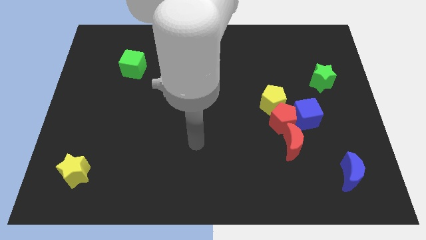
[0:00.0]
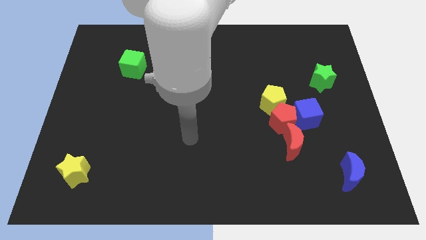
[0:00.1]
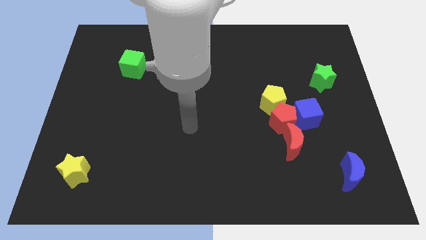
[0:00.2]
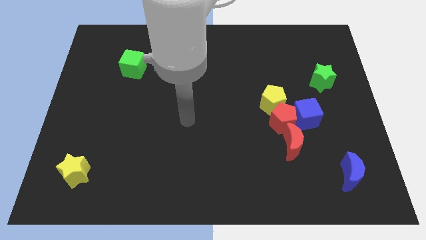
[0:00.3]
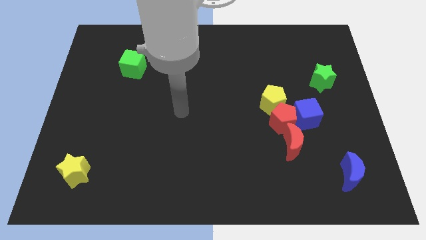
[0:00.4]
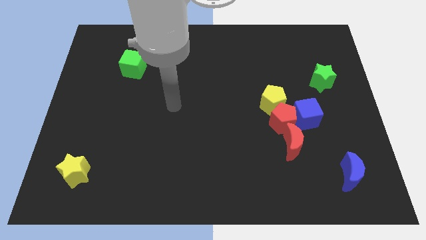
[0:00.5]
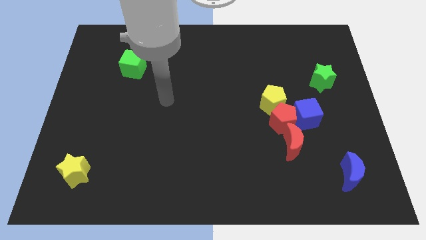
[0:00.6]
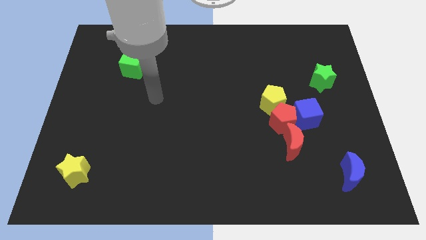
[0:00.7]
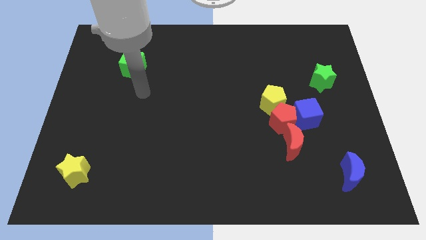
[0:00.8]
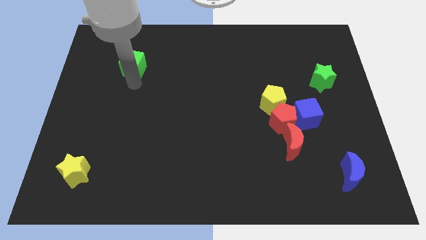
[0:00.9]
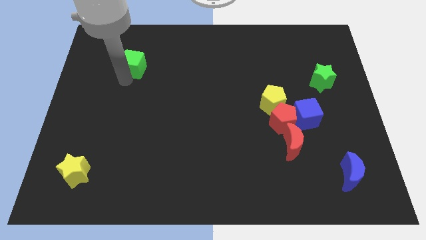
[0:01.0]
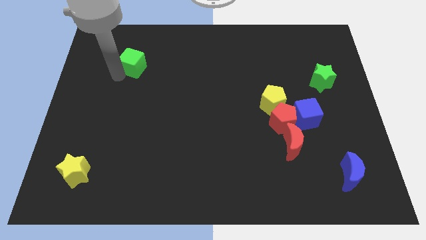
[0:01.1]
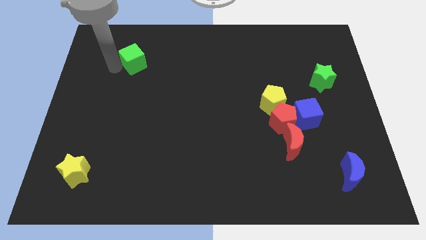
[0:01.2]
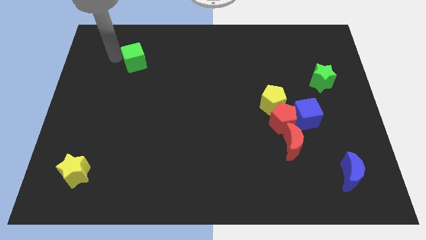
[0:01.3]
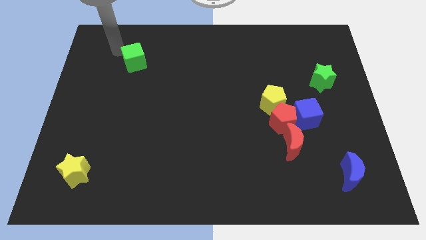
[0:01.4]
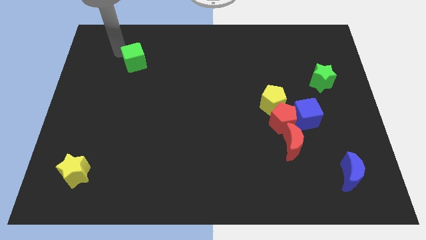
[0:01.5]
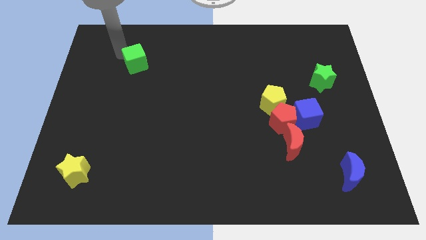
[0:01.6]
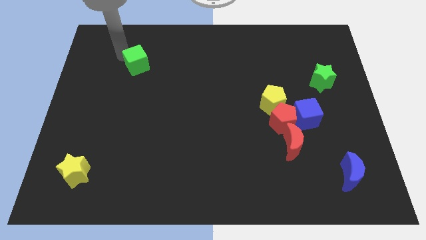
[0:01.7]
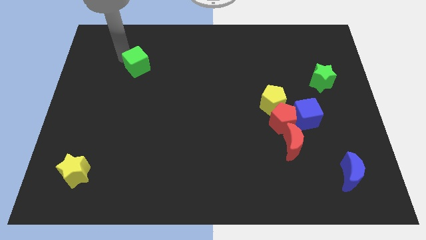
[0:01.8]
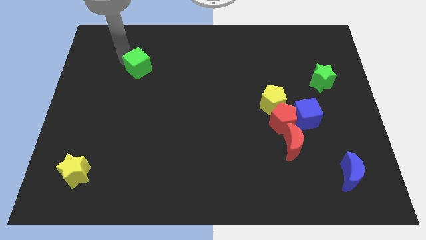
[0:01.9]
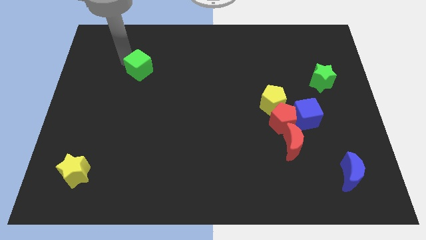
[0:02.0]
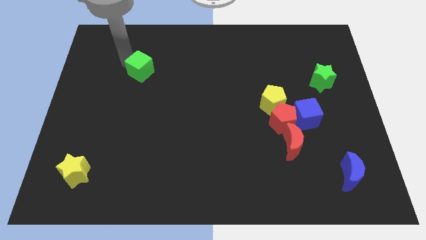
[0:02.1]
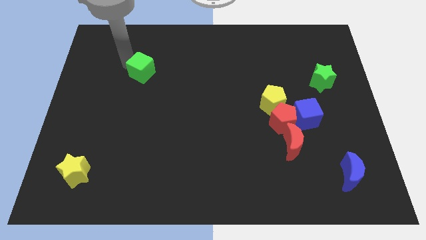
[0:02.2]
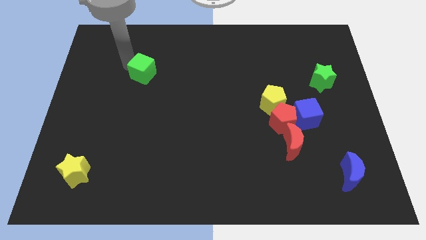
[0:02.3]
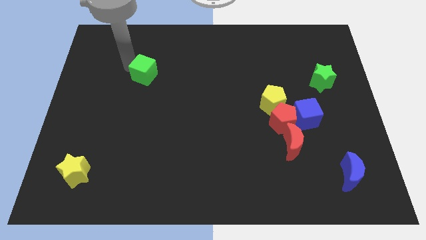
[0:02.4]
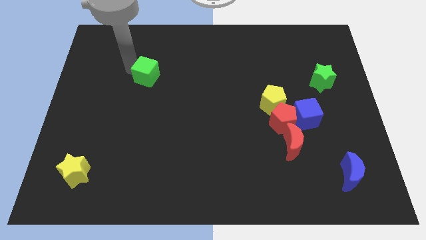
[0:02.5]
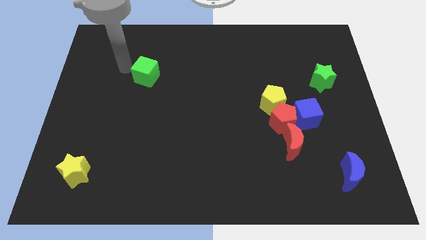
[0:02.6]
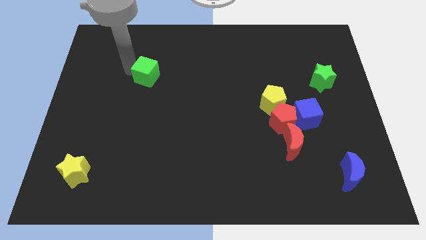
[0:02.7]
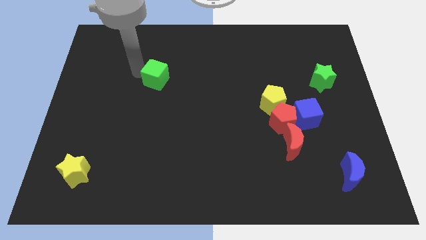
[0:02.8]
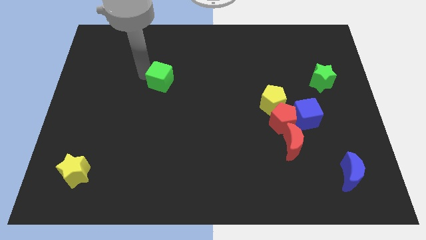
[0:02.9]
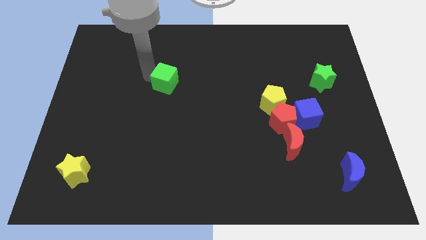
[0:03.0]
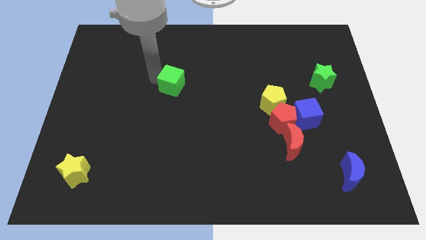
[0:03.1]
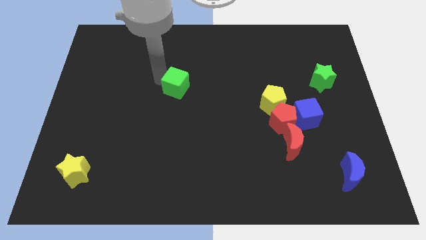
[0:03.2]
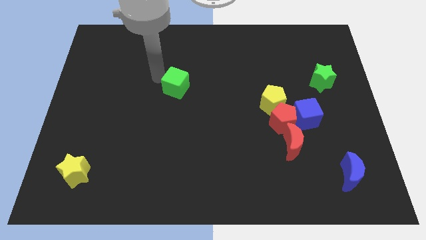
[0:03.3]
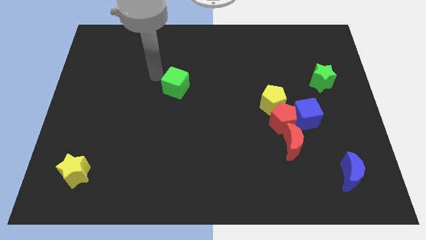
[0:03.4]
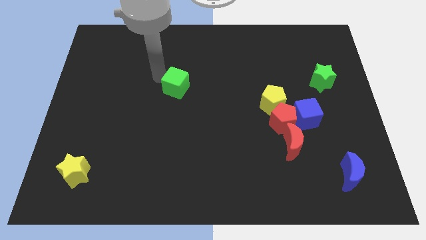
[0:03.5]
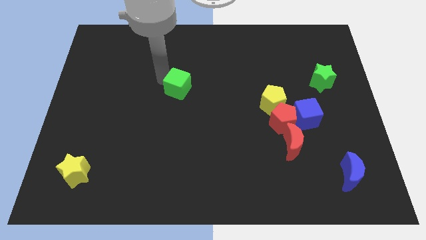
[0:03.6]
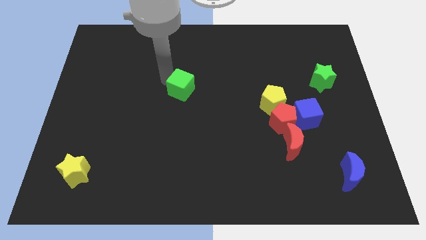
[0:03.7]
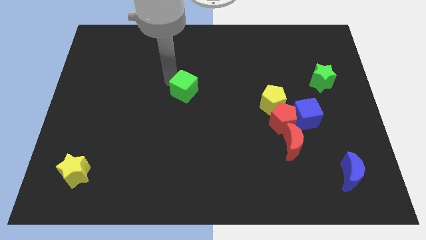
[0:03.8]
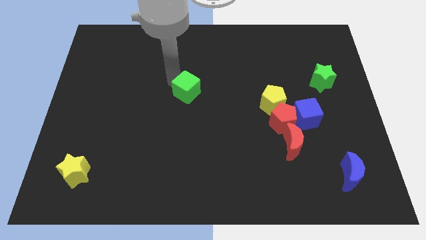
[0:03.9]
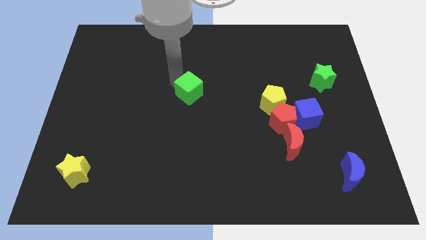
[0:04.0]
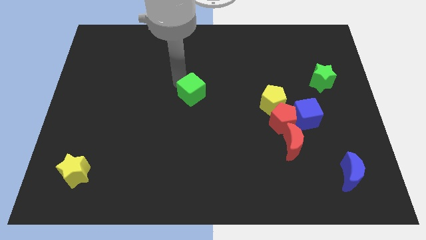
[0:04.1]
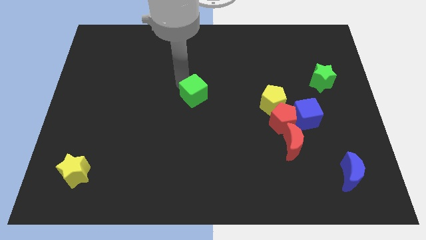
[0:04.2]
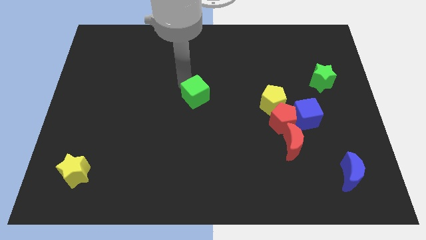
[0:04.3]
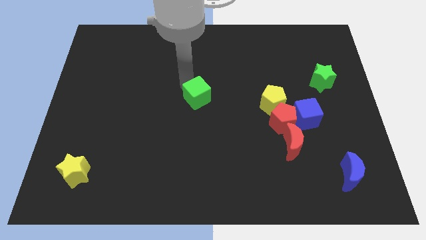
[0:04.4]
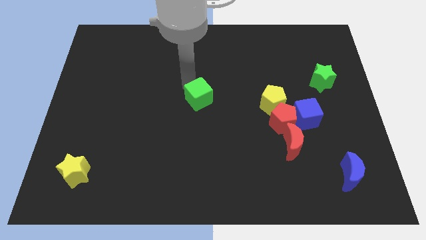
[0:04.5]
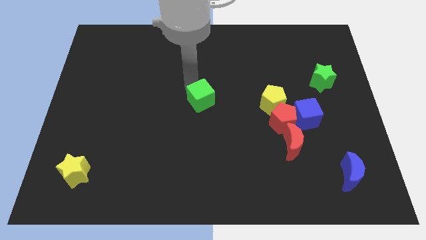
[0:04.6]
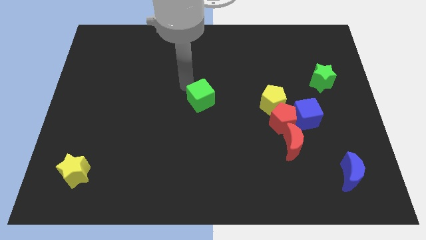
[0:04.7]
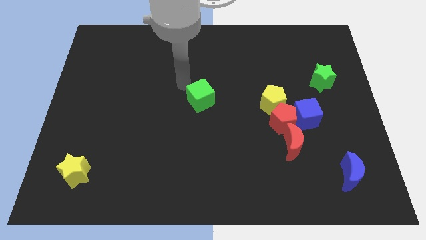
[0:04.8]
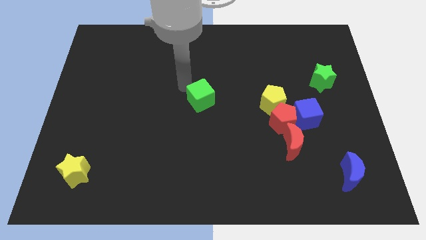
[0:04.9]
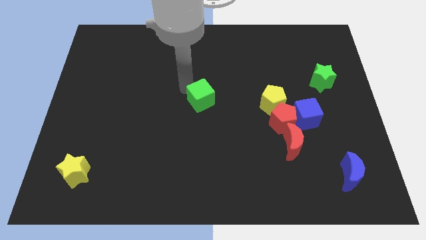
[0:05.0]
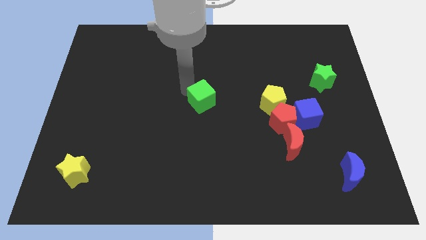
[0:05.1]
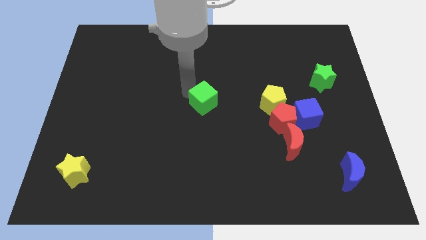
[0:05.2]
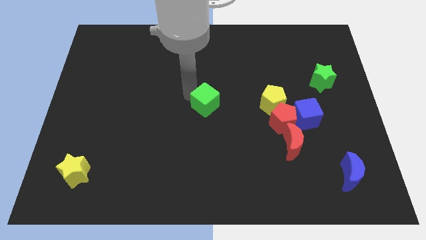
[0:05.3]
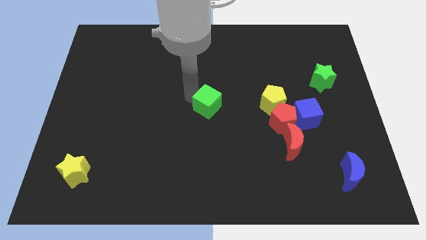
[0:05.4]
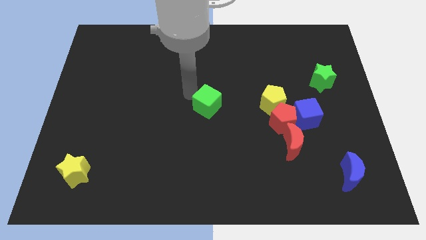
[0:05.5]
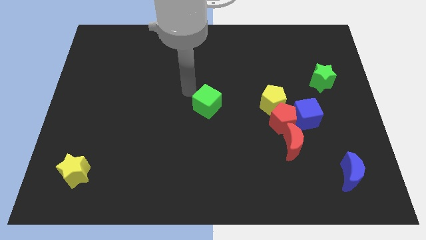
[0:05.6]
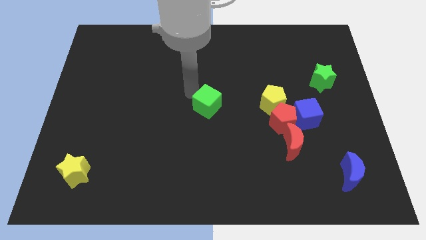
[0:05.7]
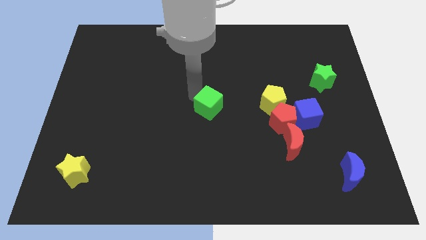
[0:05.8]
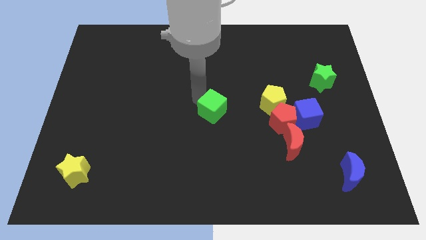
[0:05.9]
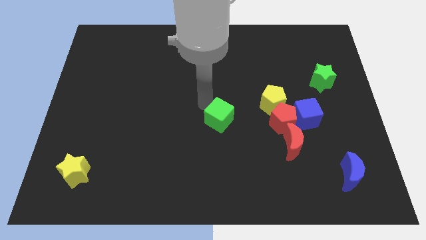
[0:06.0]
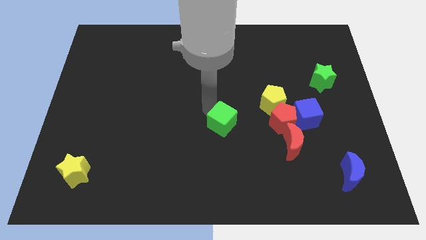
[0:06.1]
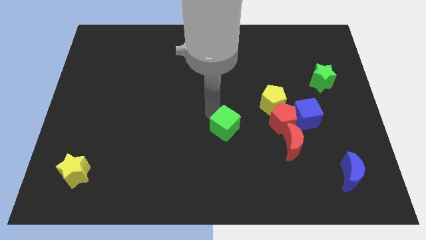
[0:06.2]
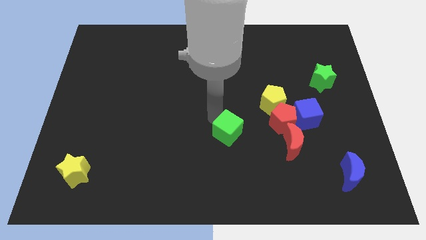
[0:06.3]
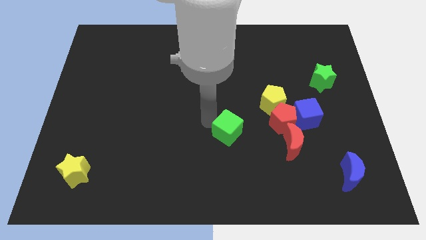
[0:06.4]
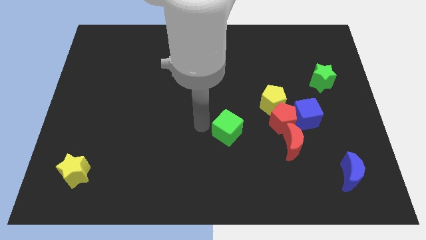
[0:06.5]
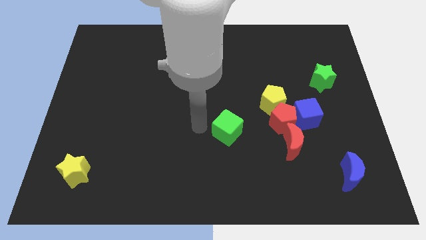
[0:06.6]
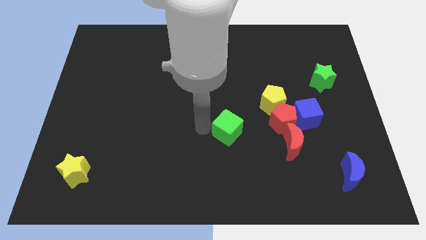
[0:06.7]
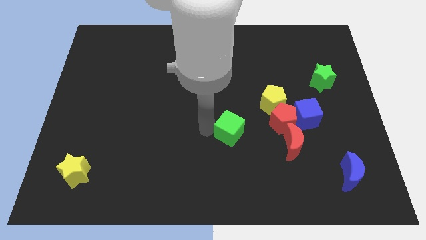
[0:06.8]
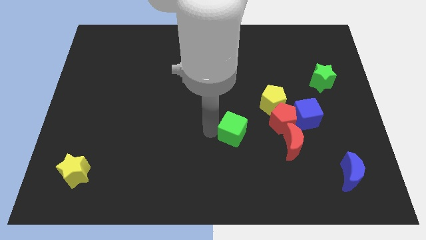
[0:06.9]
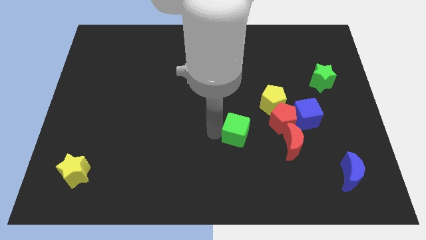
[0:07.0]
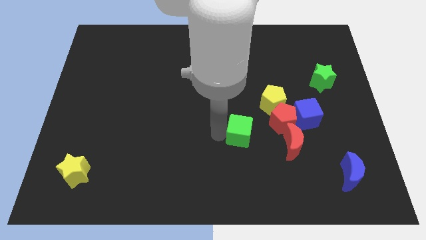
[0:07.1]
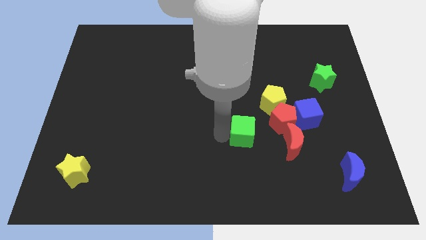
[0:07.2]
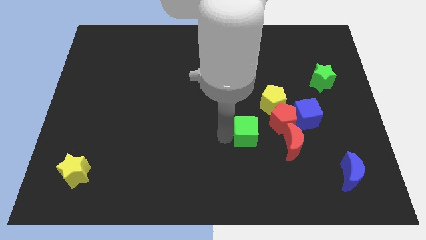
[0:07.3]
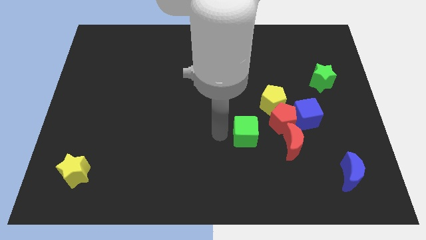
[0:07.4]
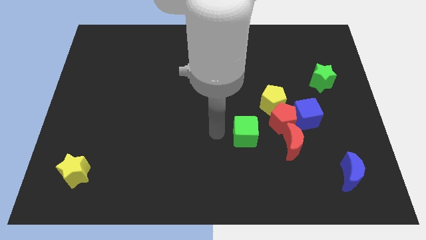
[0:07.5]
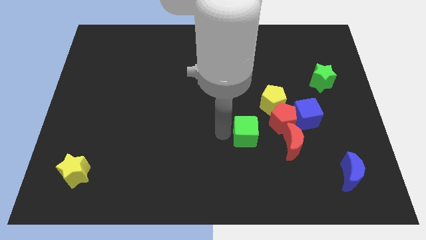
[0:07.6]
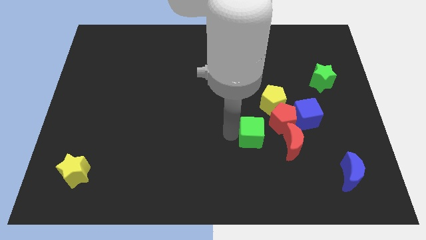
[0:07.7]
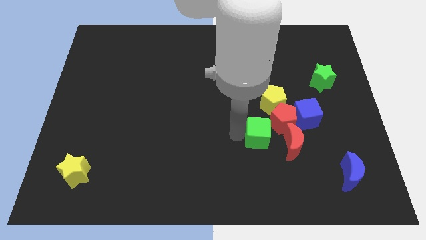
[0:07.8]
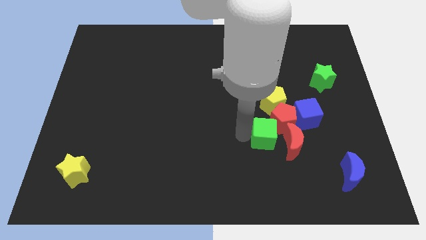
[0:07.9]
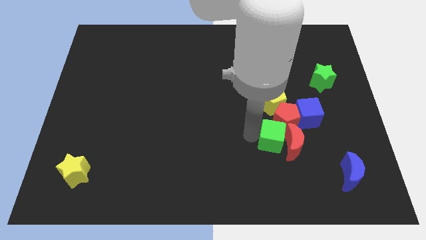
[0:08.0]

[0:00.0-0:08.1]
slide the green cube to the red moon
